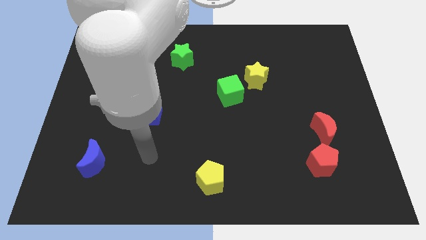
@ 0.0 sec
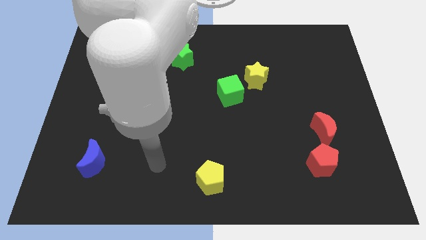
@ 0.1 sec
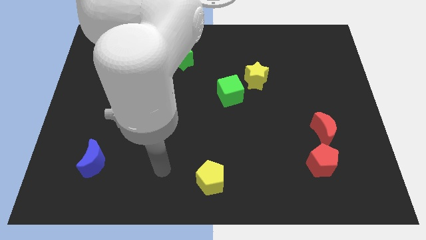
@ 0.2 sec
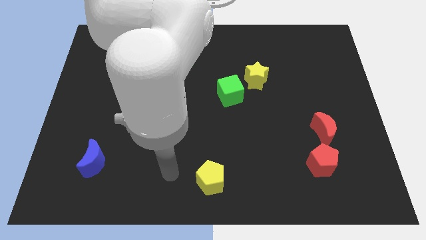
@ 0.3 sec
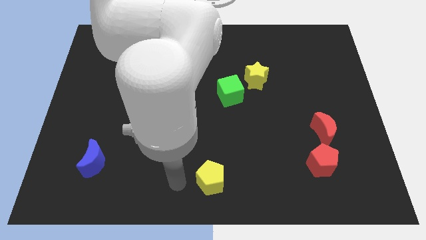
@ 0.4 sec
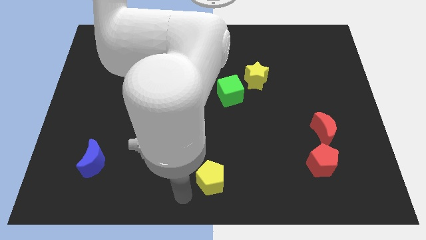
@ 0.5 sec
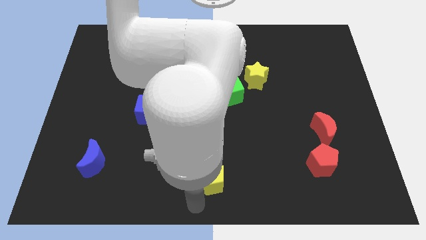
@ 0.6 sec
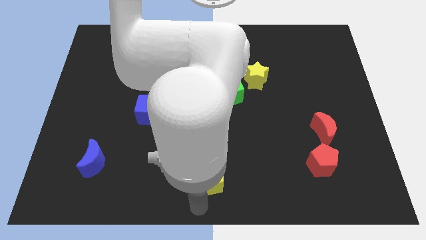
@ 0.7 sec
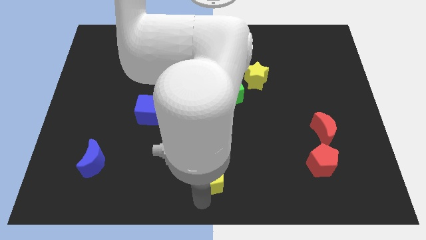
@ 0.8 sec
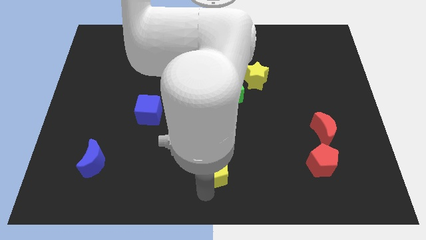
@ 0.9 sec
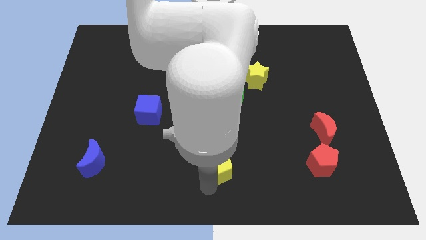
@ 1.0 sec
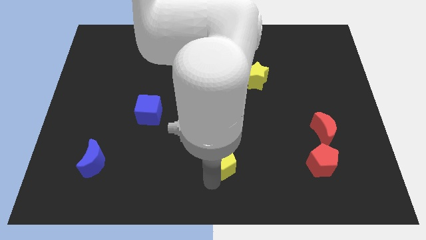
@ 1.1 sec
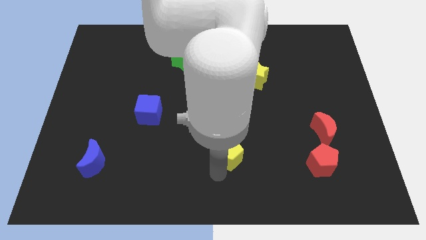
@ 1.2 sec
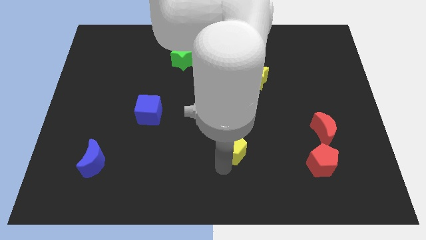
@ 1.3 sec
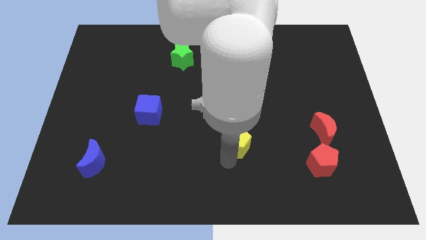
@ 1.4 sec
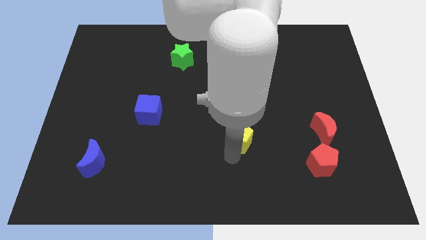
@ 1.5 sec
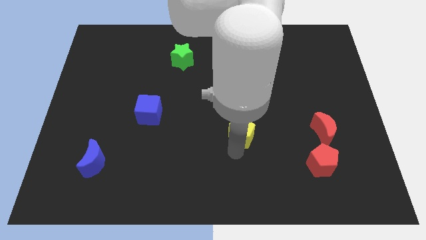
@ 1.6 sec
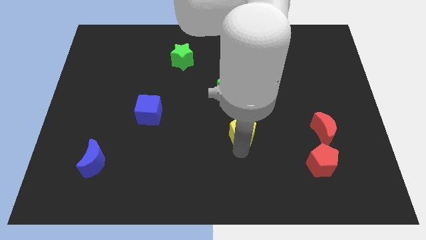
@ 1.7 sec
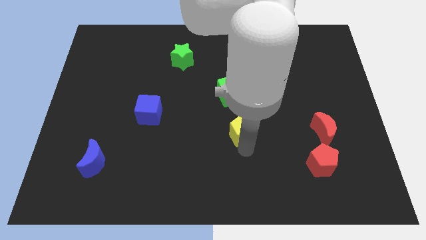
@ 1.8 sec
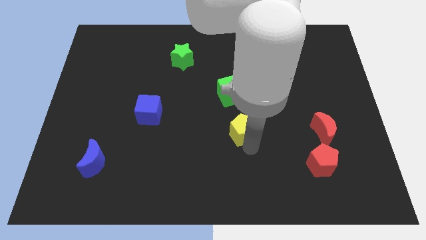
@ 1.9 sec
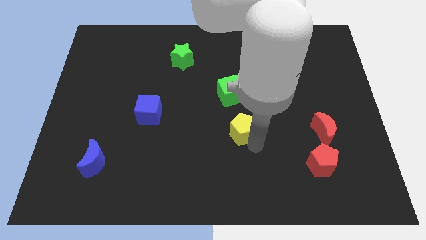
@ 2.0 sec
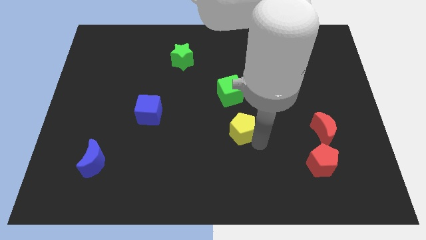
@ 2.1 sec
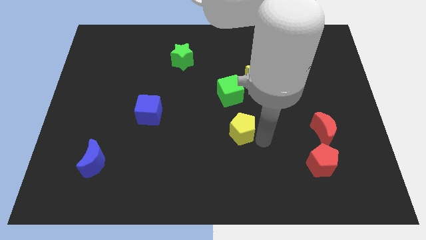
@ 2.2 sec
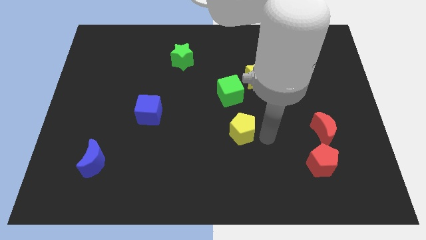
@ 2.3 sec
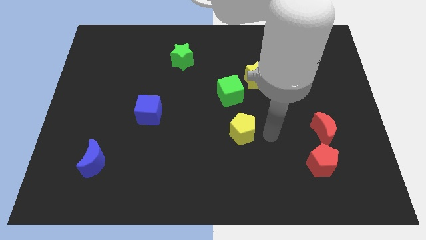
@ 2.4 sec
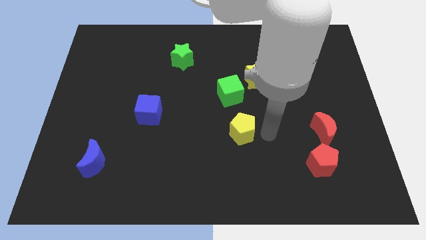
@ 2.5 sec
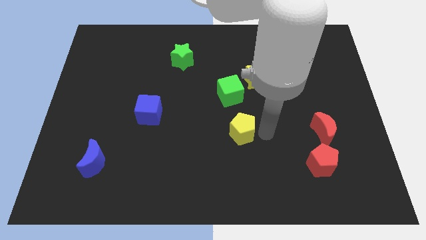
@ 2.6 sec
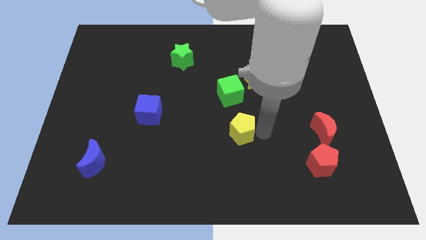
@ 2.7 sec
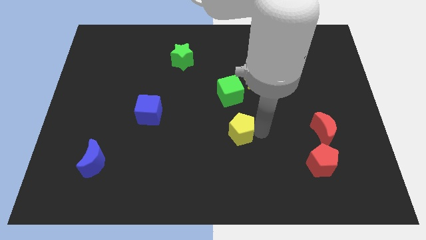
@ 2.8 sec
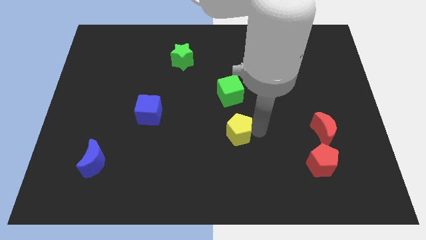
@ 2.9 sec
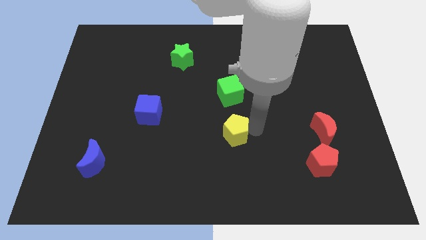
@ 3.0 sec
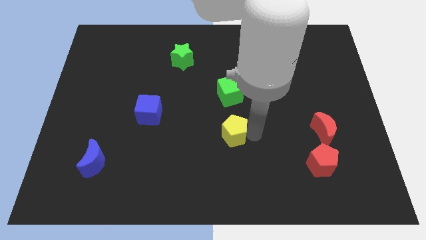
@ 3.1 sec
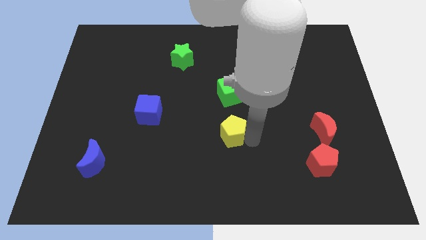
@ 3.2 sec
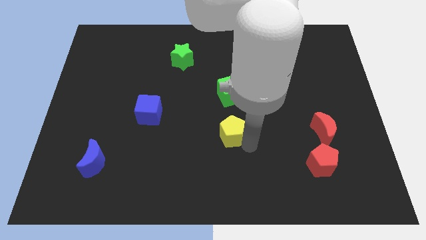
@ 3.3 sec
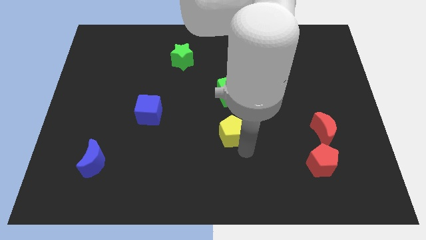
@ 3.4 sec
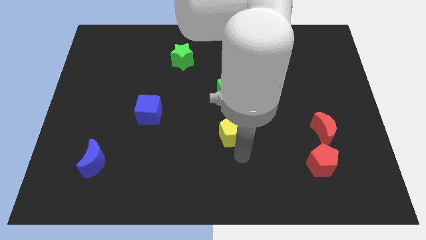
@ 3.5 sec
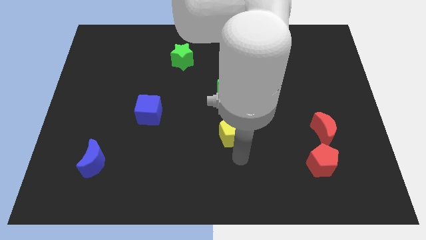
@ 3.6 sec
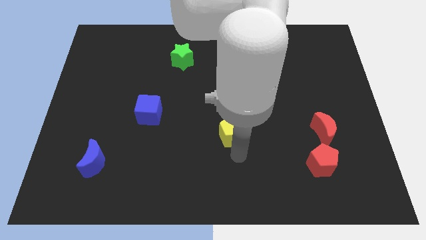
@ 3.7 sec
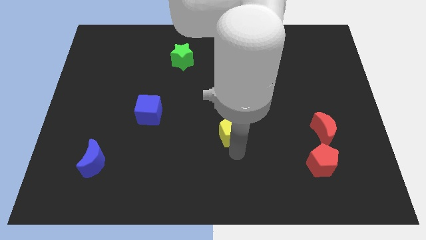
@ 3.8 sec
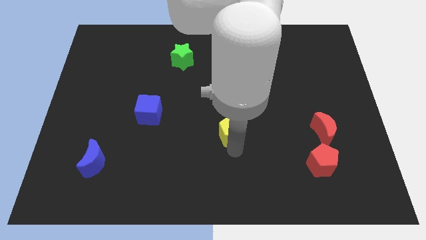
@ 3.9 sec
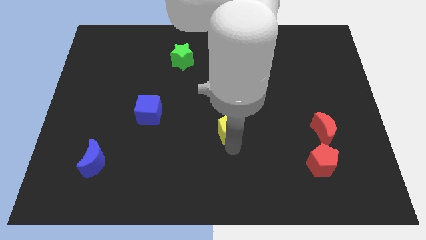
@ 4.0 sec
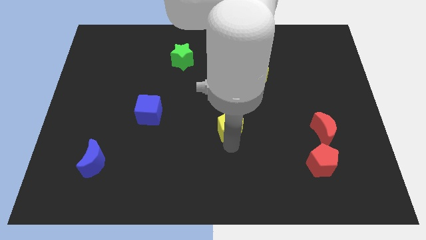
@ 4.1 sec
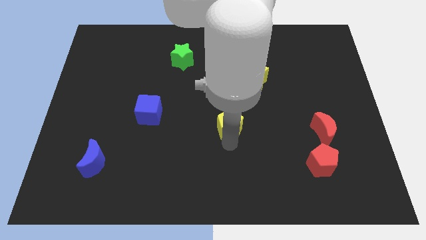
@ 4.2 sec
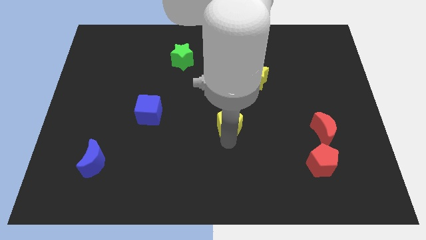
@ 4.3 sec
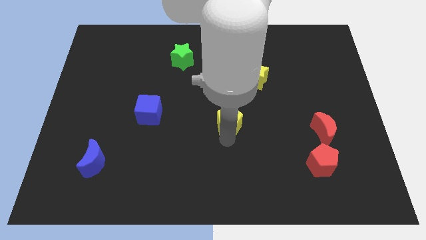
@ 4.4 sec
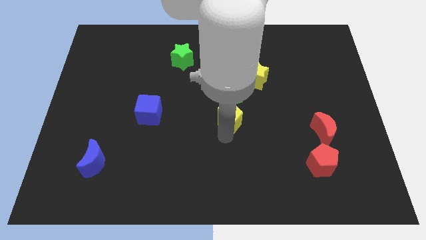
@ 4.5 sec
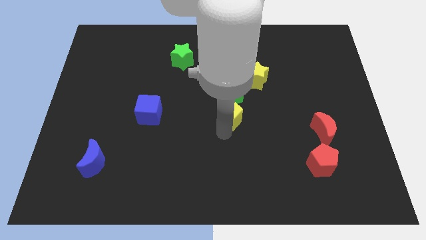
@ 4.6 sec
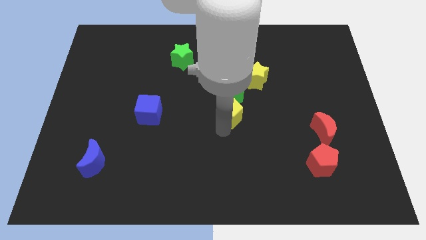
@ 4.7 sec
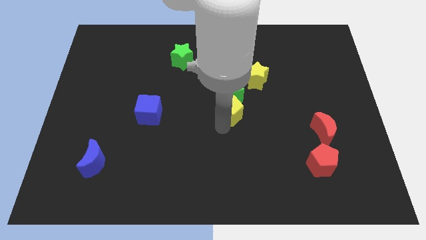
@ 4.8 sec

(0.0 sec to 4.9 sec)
move the yellow pentagon next to the green cube

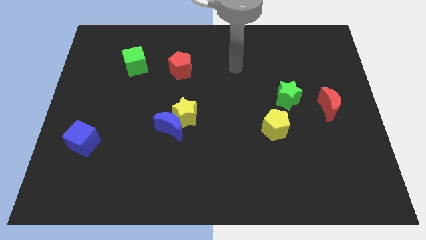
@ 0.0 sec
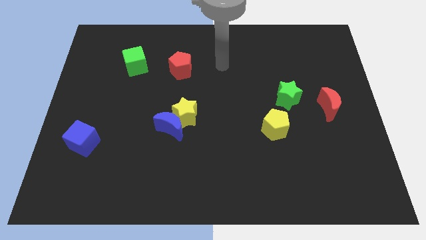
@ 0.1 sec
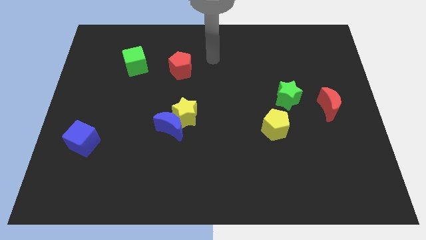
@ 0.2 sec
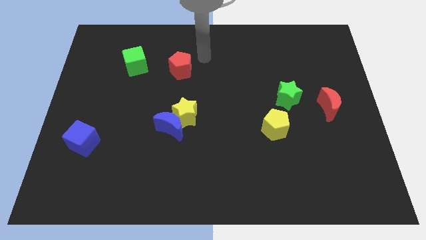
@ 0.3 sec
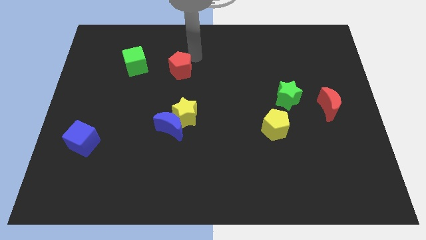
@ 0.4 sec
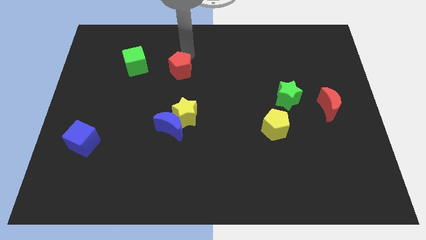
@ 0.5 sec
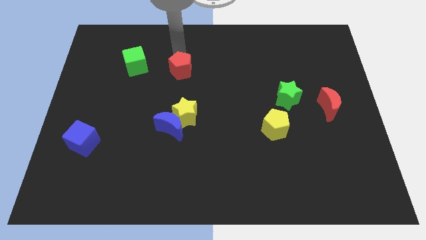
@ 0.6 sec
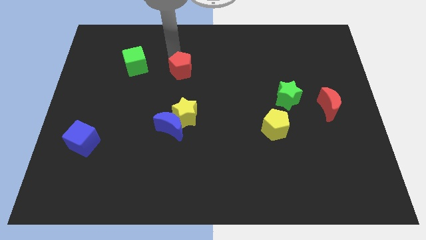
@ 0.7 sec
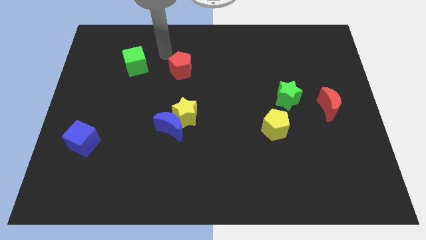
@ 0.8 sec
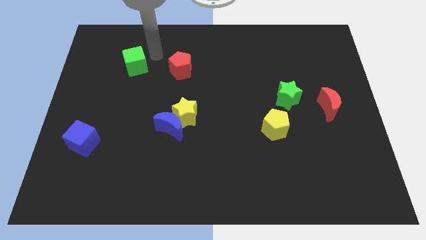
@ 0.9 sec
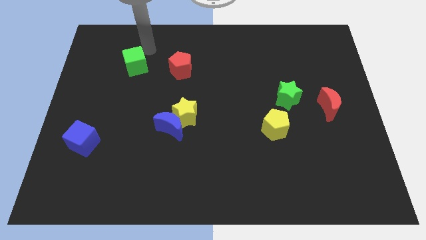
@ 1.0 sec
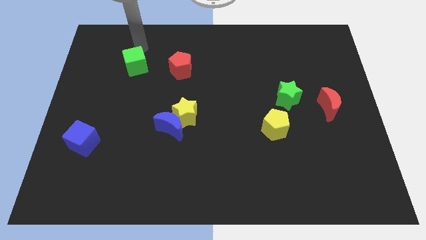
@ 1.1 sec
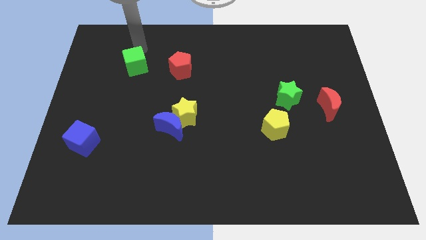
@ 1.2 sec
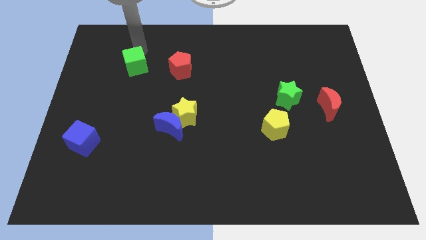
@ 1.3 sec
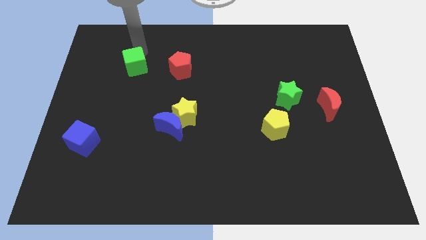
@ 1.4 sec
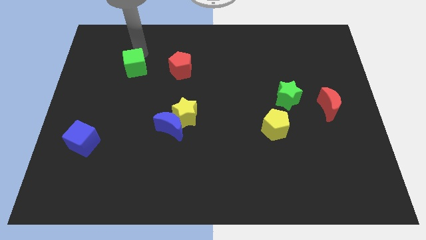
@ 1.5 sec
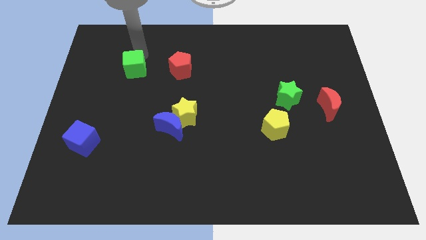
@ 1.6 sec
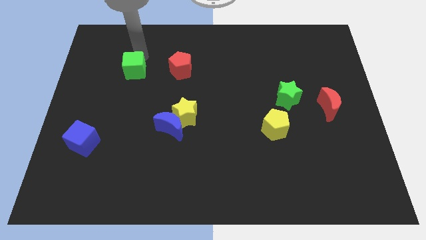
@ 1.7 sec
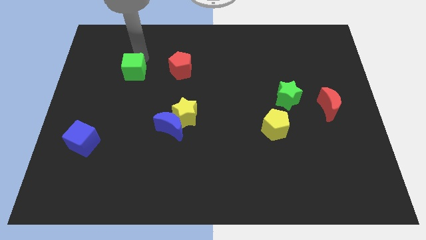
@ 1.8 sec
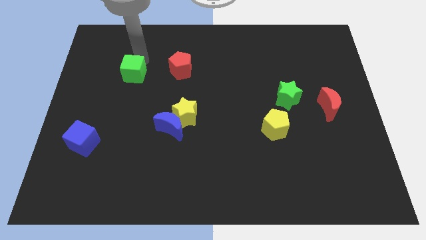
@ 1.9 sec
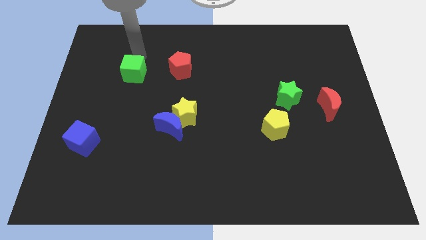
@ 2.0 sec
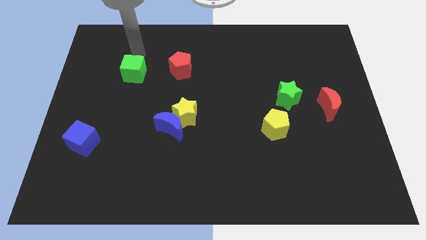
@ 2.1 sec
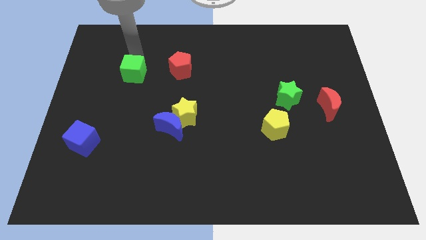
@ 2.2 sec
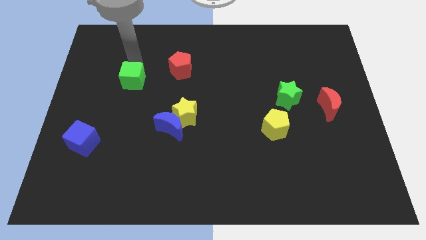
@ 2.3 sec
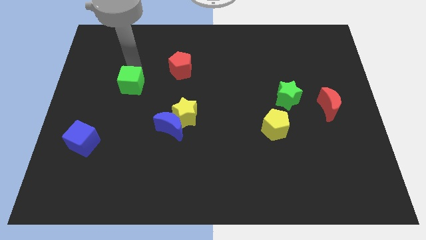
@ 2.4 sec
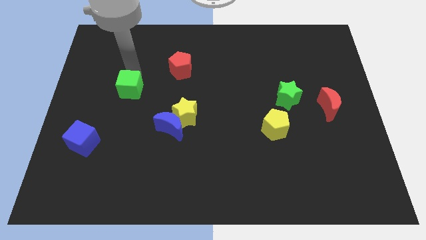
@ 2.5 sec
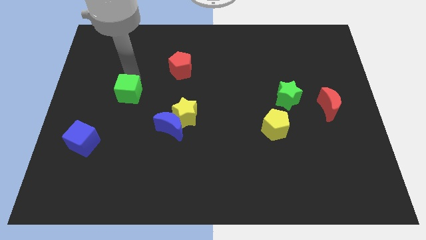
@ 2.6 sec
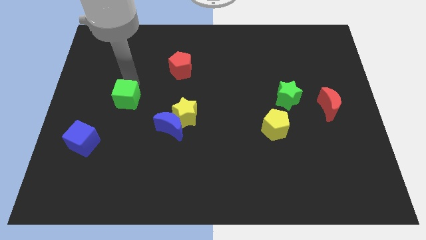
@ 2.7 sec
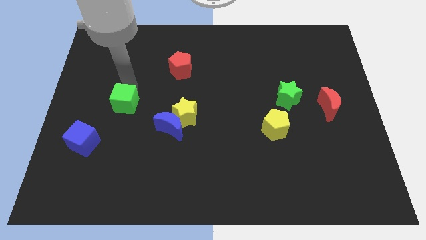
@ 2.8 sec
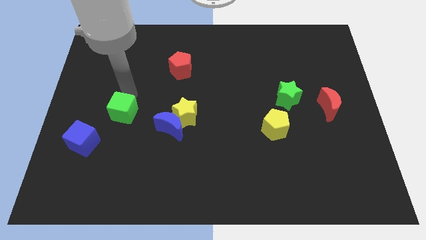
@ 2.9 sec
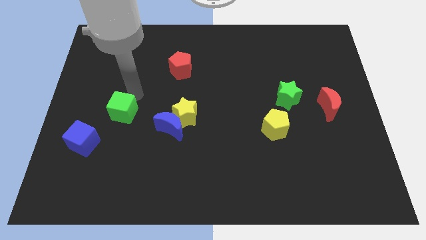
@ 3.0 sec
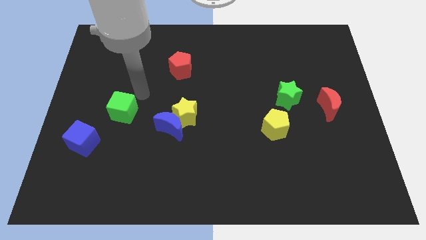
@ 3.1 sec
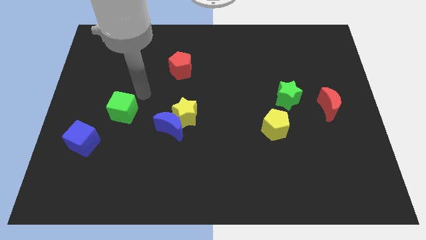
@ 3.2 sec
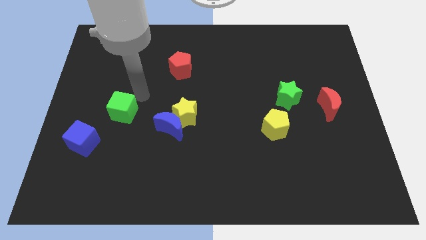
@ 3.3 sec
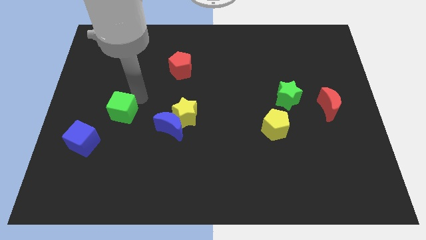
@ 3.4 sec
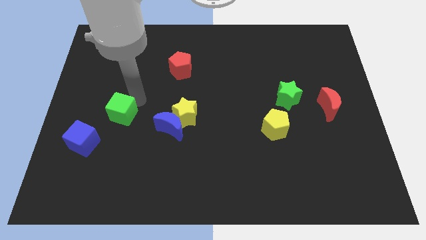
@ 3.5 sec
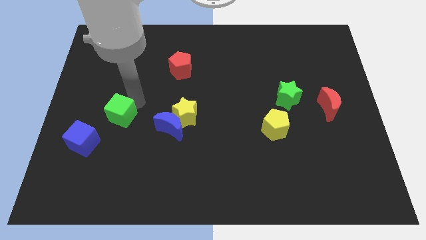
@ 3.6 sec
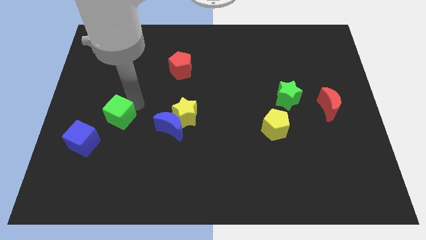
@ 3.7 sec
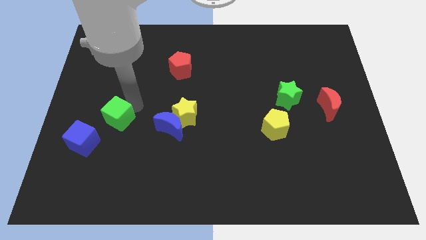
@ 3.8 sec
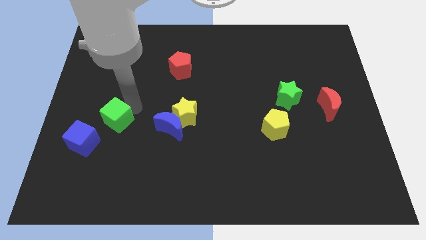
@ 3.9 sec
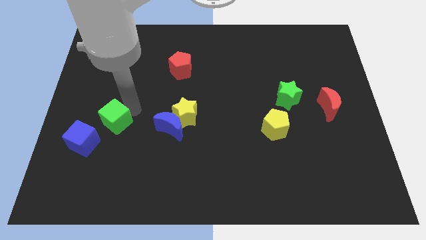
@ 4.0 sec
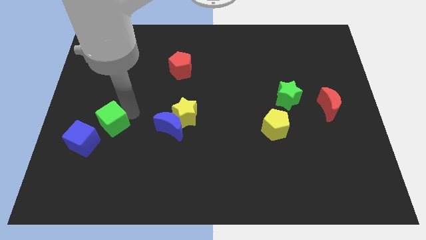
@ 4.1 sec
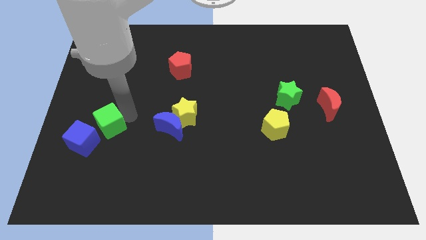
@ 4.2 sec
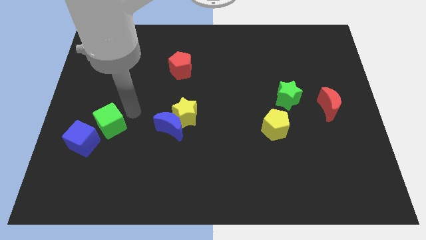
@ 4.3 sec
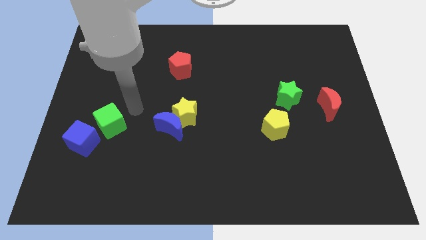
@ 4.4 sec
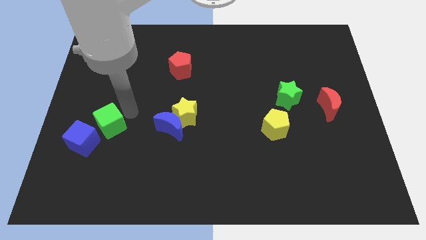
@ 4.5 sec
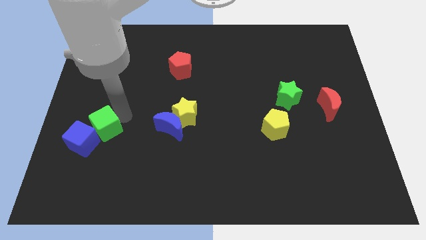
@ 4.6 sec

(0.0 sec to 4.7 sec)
push the green cube to the blue cube
